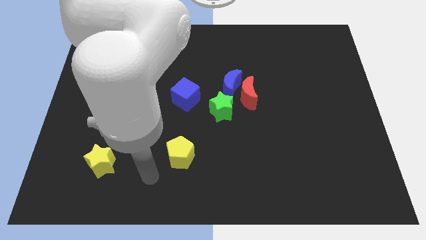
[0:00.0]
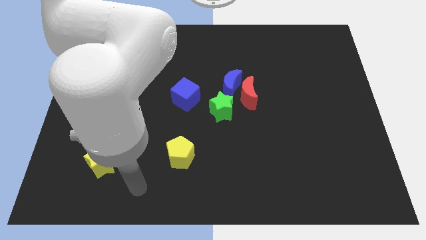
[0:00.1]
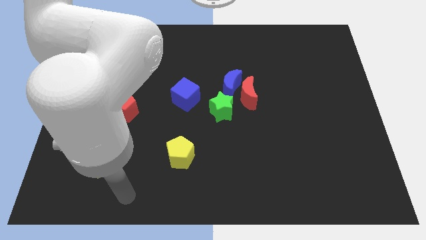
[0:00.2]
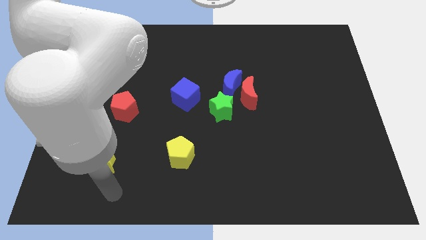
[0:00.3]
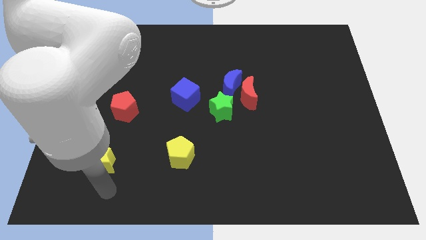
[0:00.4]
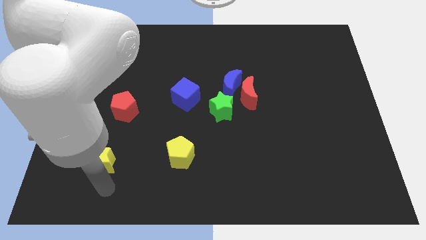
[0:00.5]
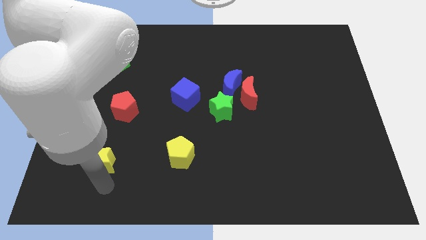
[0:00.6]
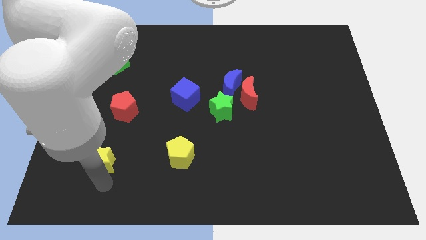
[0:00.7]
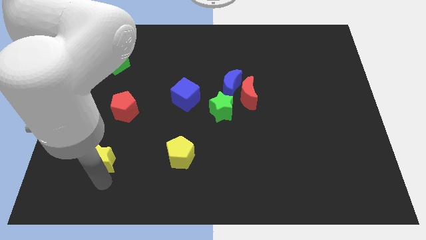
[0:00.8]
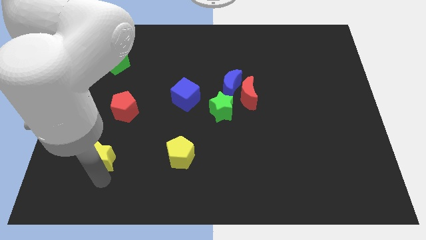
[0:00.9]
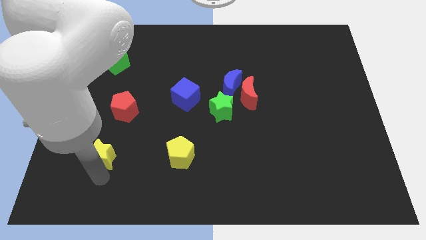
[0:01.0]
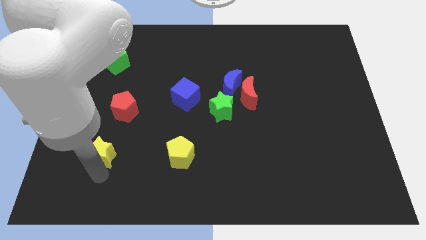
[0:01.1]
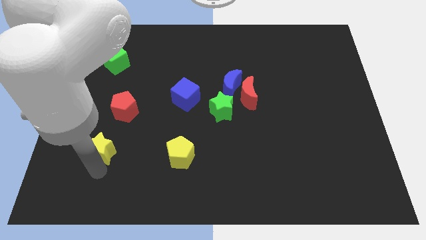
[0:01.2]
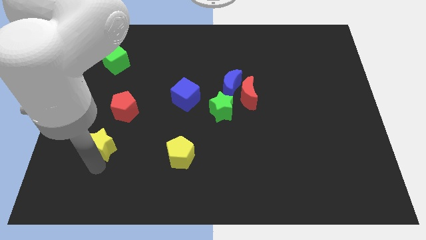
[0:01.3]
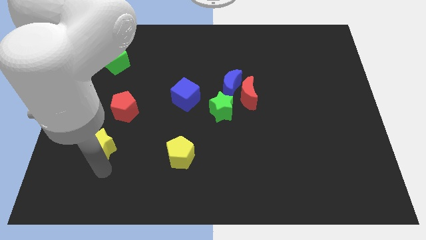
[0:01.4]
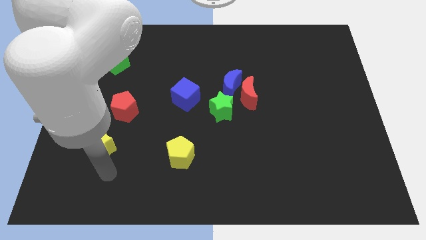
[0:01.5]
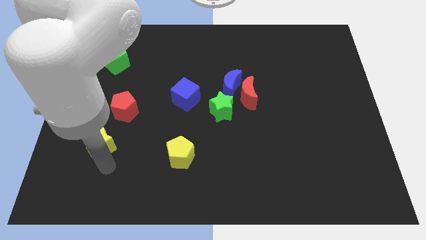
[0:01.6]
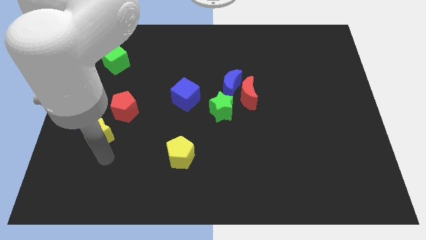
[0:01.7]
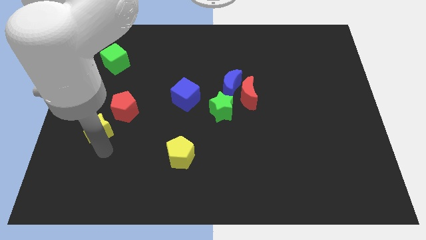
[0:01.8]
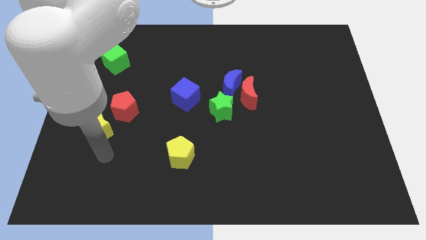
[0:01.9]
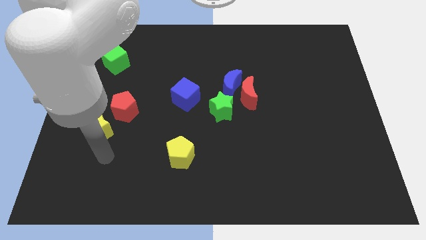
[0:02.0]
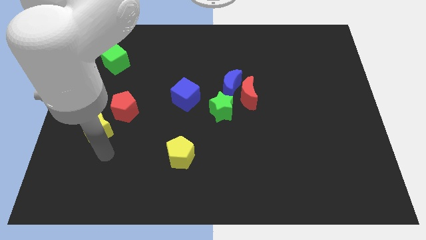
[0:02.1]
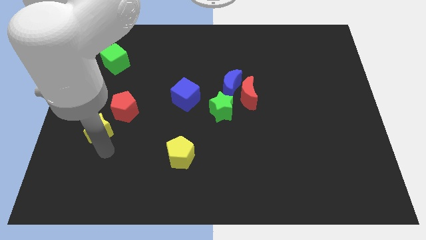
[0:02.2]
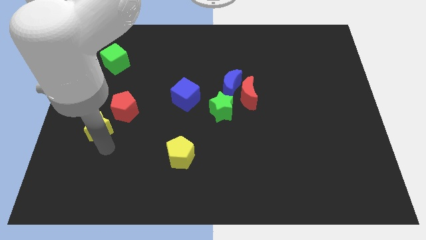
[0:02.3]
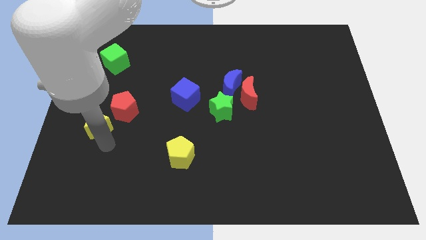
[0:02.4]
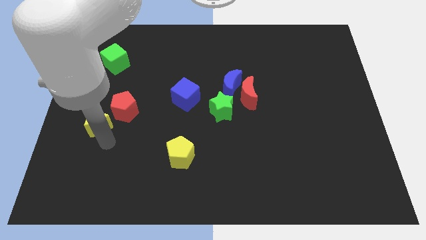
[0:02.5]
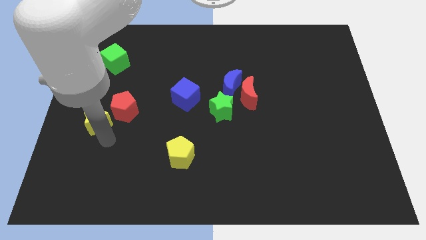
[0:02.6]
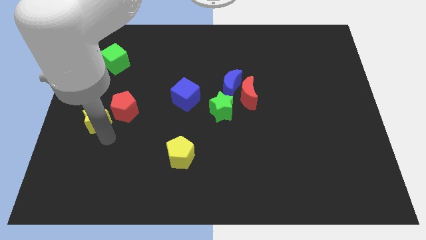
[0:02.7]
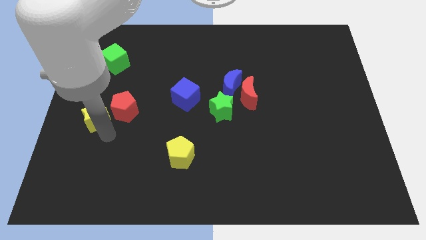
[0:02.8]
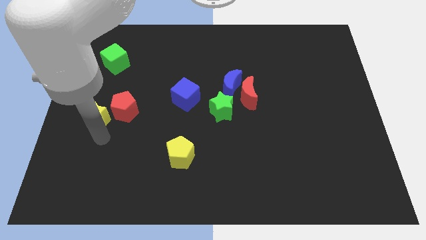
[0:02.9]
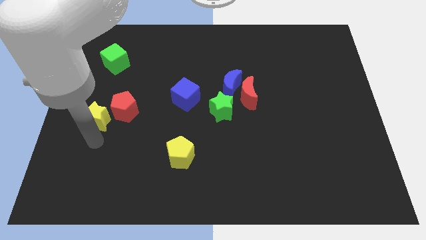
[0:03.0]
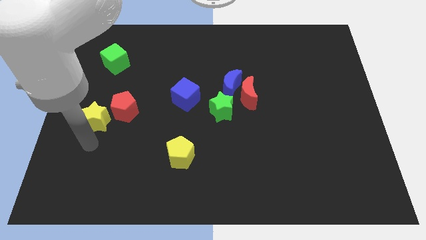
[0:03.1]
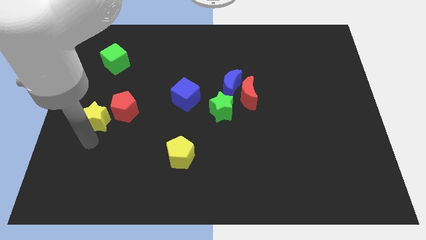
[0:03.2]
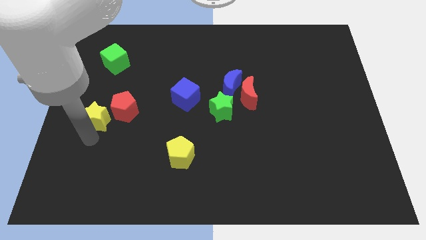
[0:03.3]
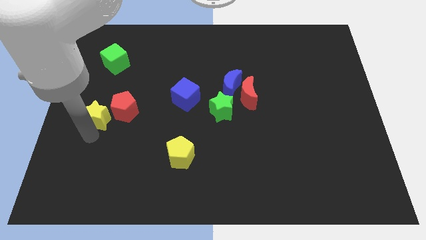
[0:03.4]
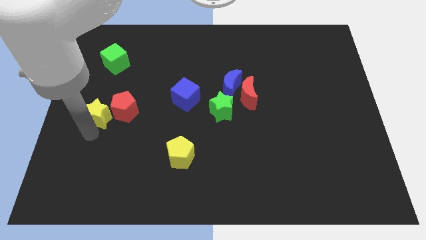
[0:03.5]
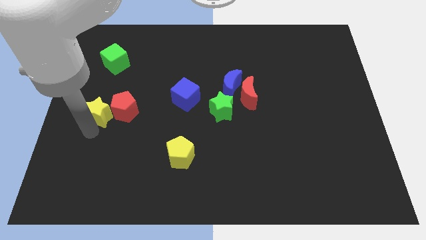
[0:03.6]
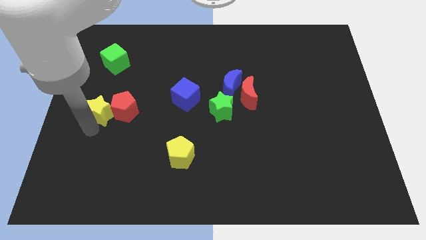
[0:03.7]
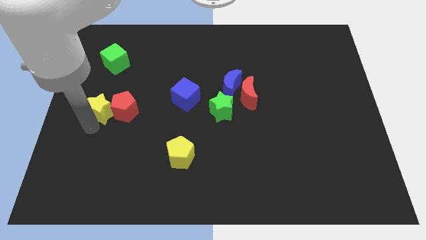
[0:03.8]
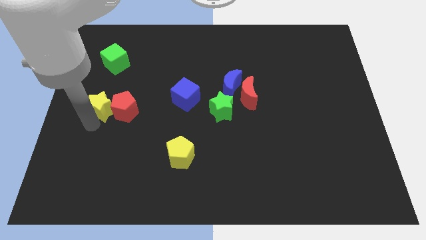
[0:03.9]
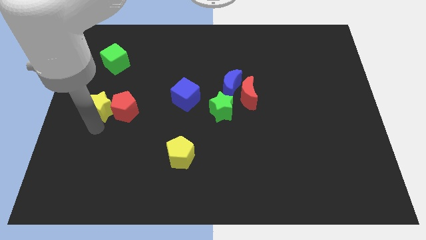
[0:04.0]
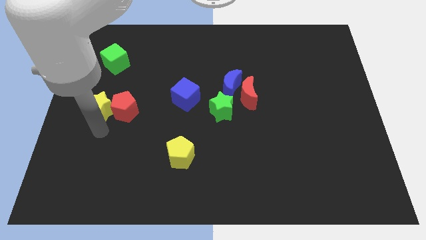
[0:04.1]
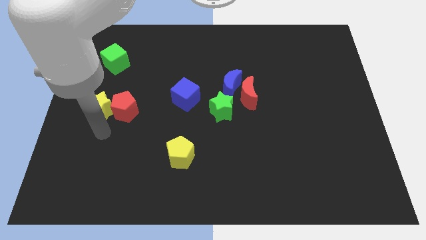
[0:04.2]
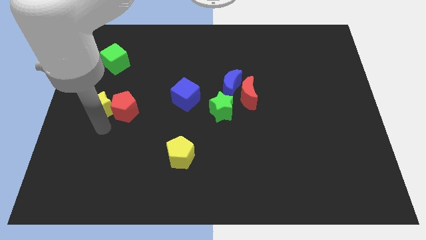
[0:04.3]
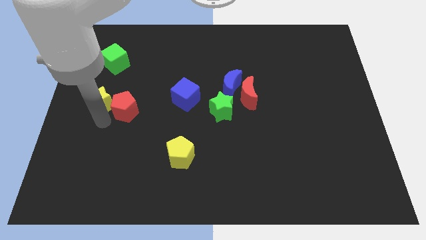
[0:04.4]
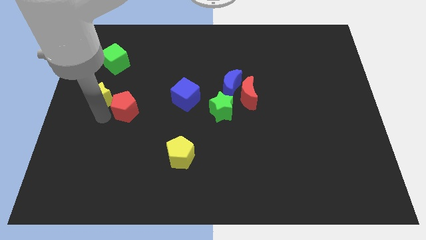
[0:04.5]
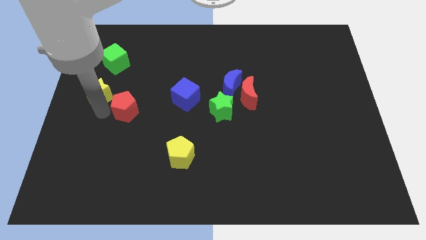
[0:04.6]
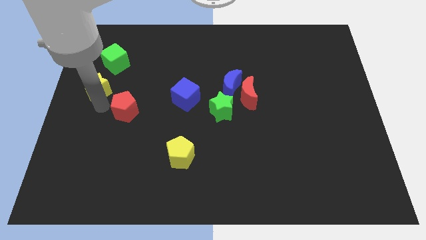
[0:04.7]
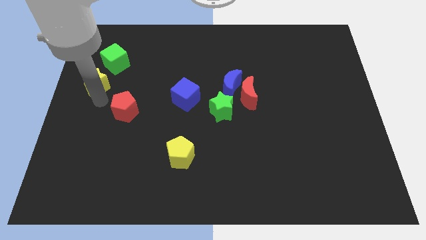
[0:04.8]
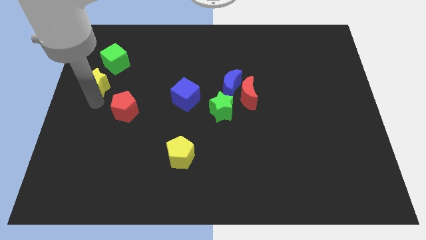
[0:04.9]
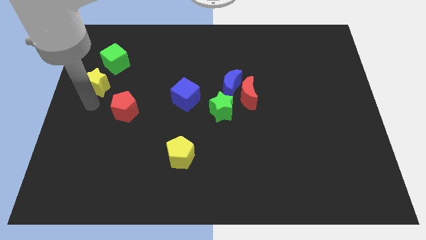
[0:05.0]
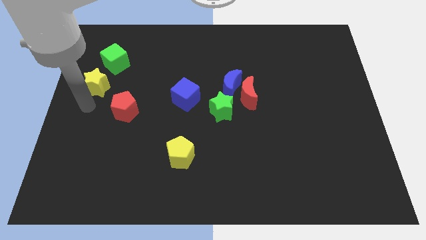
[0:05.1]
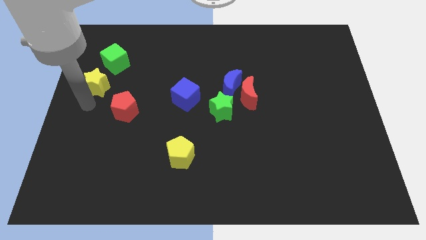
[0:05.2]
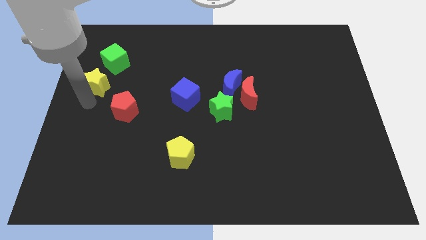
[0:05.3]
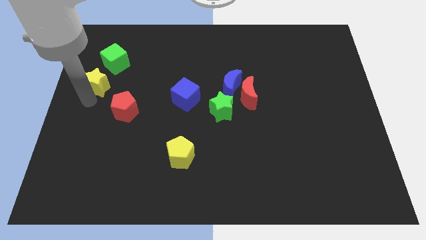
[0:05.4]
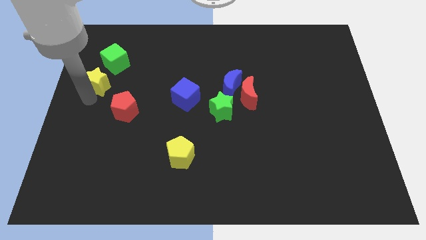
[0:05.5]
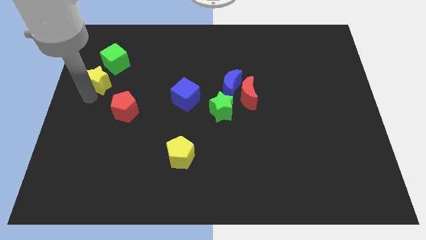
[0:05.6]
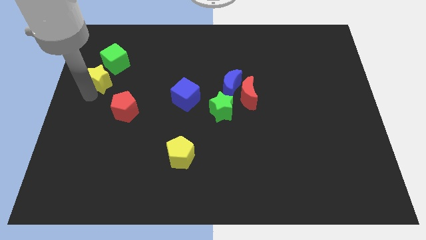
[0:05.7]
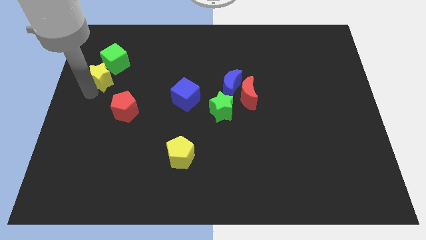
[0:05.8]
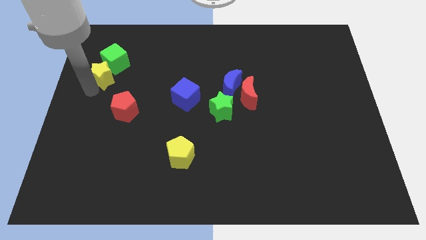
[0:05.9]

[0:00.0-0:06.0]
slide the yellow star close to the green cube

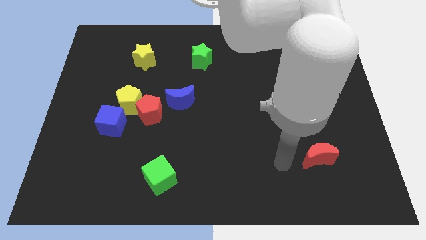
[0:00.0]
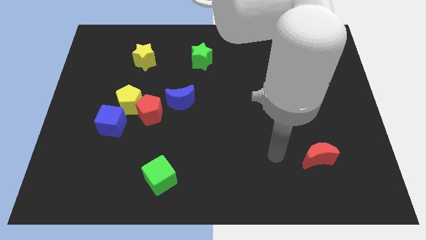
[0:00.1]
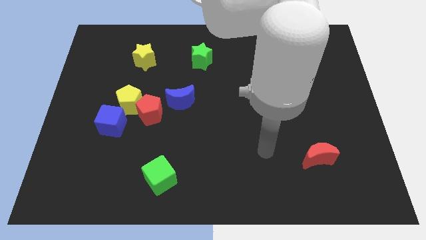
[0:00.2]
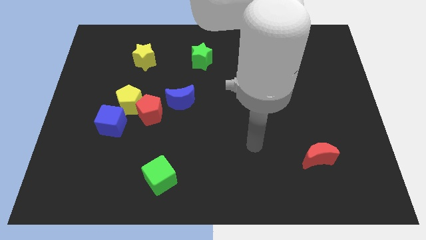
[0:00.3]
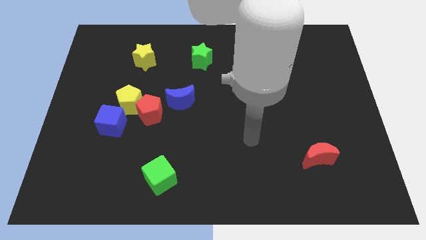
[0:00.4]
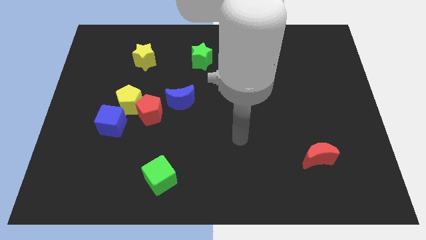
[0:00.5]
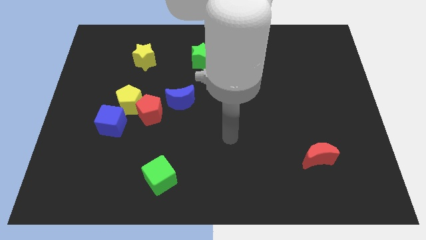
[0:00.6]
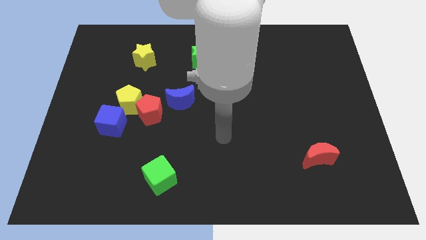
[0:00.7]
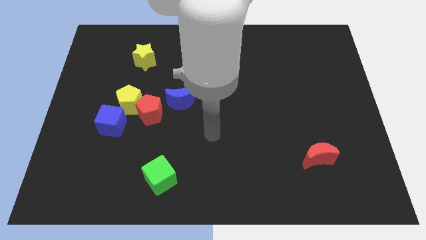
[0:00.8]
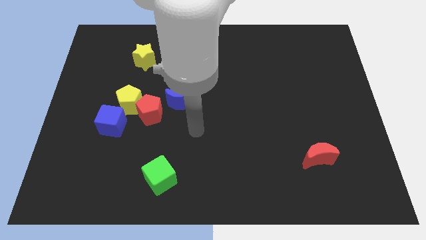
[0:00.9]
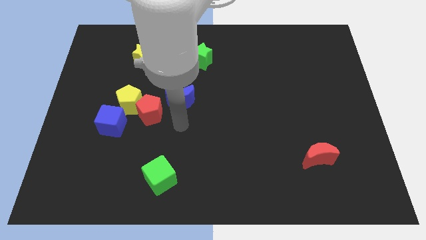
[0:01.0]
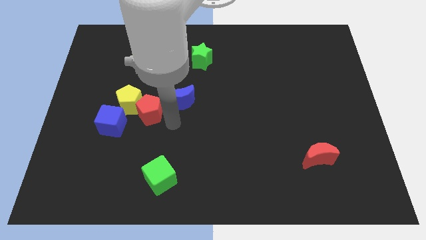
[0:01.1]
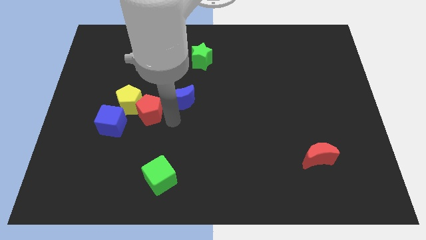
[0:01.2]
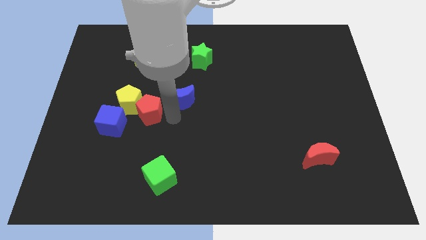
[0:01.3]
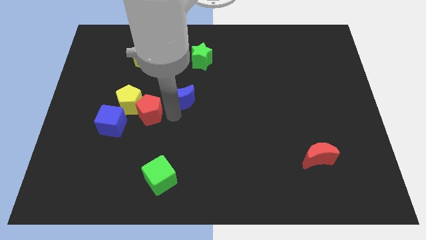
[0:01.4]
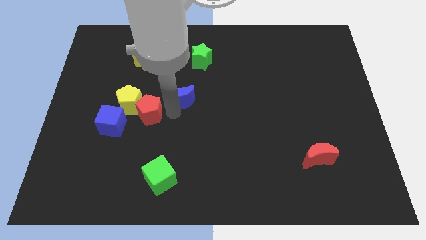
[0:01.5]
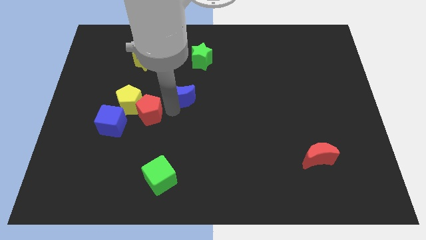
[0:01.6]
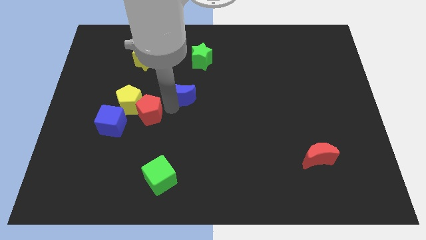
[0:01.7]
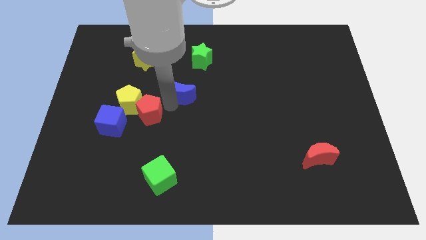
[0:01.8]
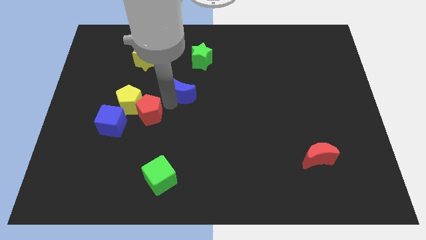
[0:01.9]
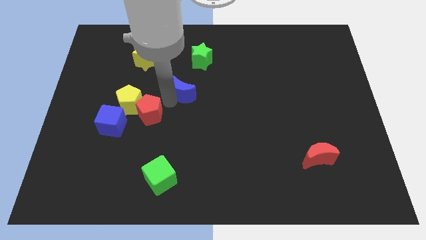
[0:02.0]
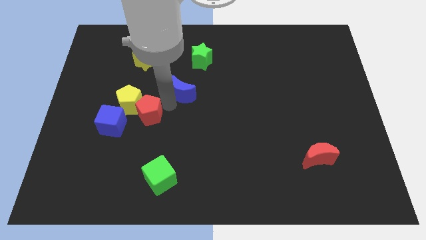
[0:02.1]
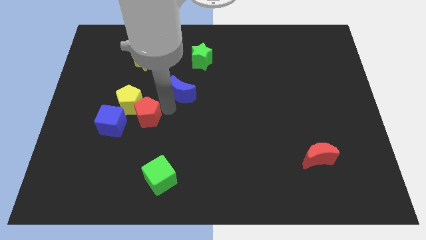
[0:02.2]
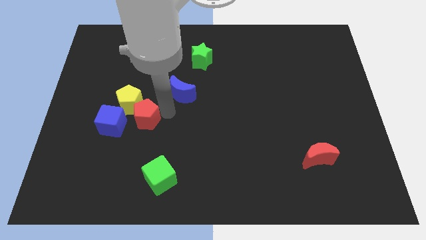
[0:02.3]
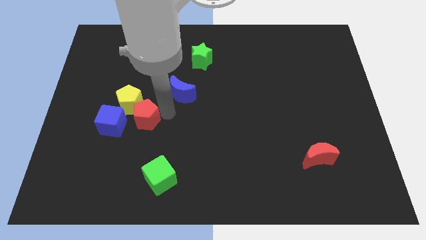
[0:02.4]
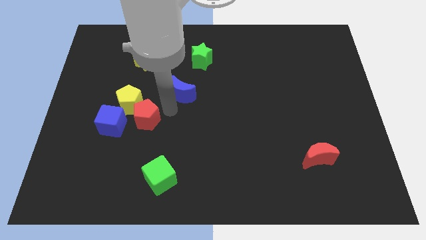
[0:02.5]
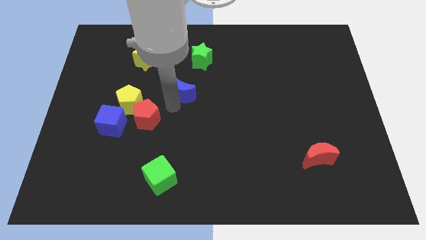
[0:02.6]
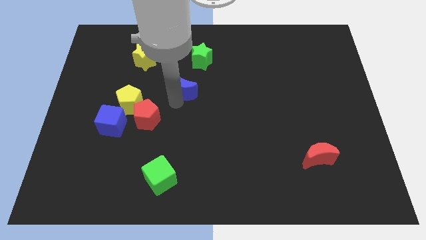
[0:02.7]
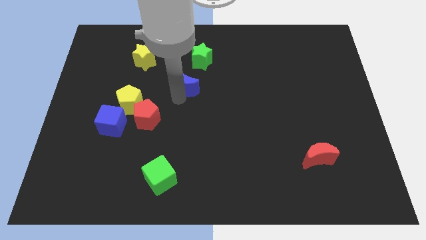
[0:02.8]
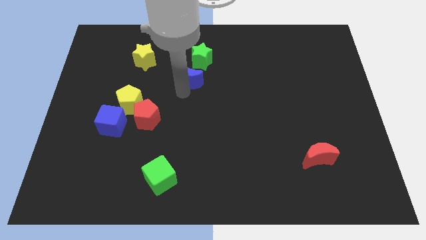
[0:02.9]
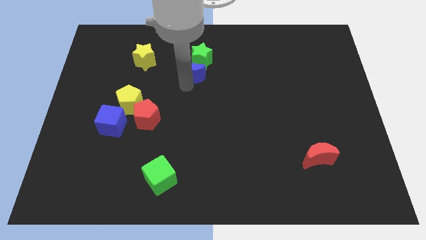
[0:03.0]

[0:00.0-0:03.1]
push the blue moon towards the green star
